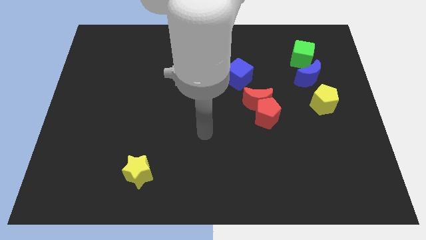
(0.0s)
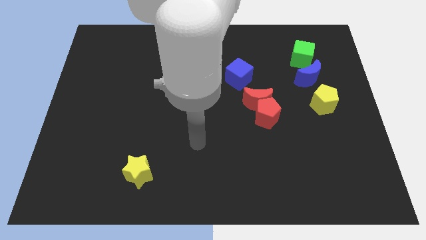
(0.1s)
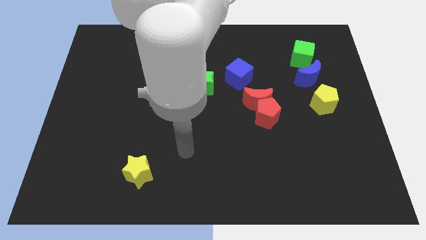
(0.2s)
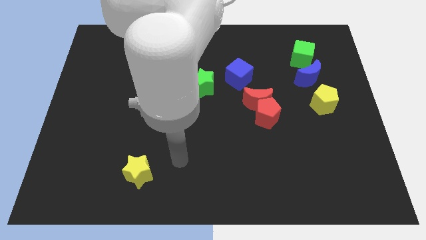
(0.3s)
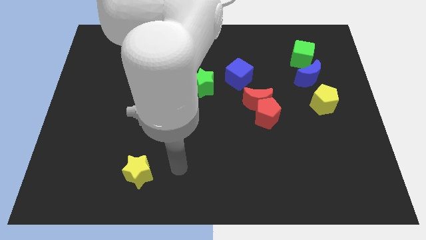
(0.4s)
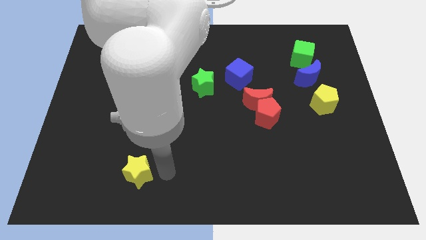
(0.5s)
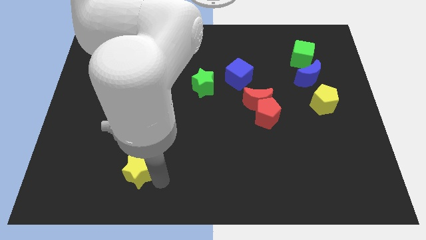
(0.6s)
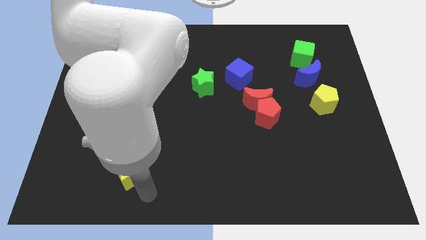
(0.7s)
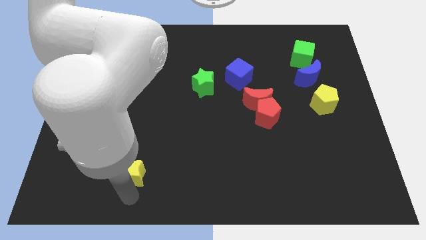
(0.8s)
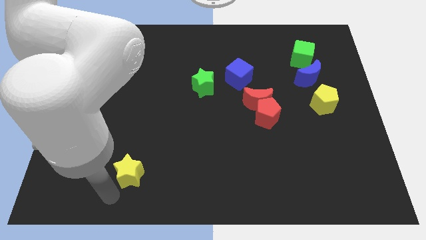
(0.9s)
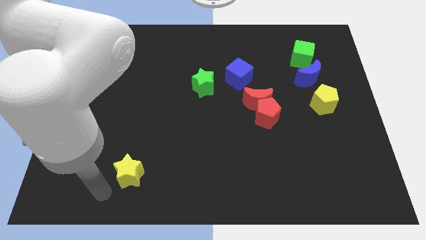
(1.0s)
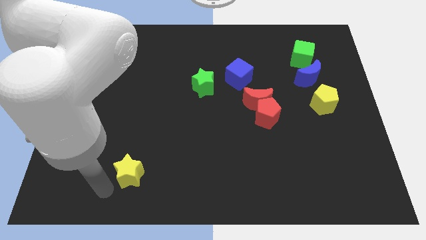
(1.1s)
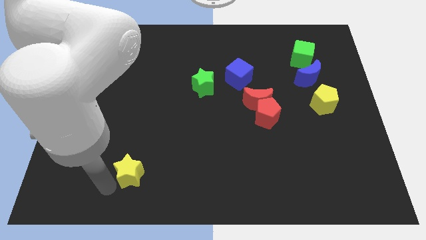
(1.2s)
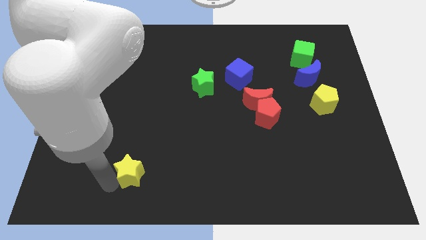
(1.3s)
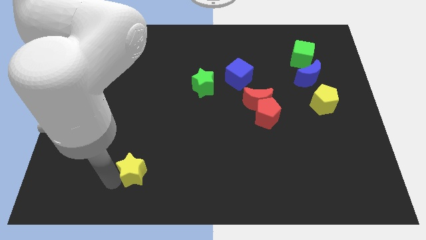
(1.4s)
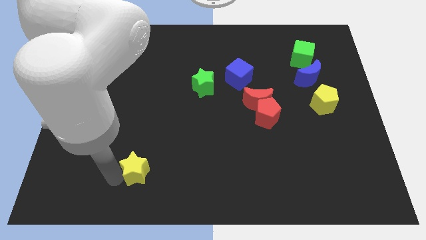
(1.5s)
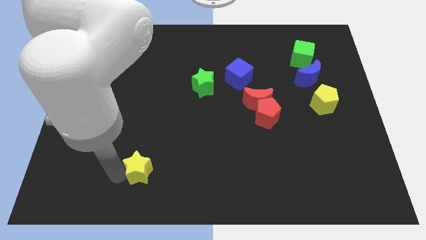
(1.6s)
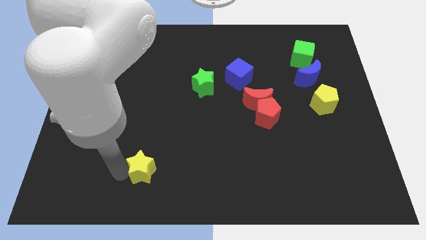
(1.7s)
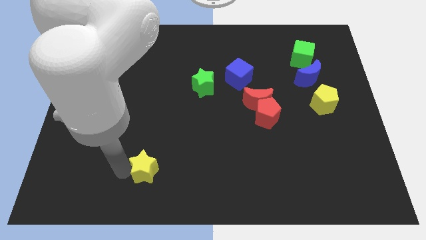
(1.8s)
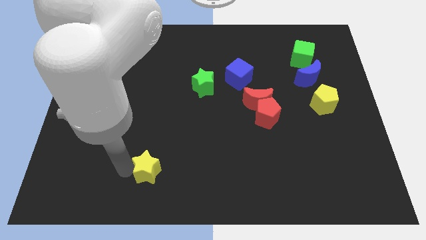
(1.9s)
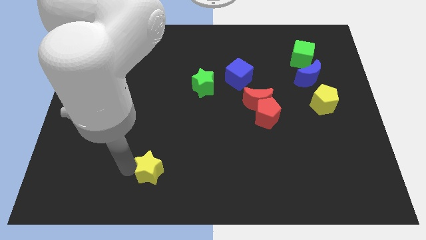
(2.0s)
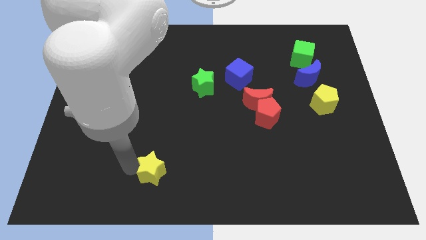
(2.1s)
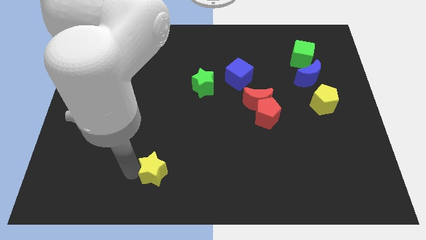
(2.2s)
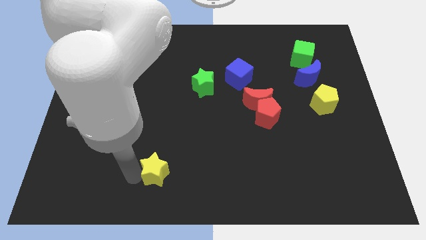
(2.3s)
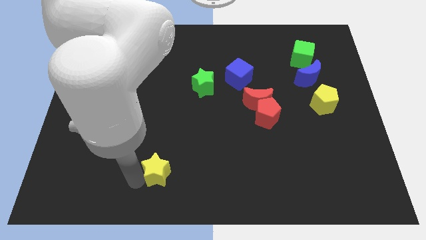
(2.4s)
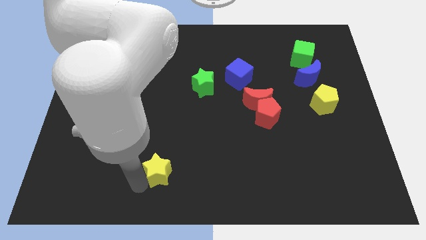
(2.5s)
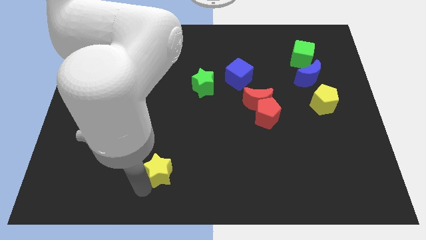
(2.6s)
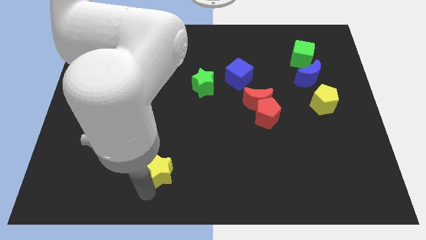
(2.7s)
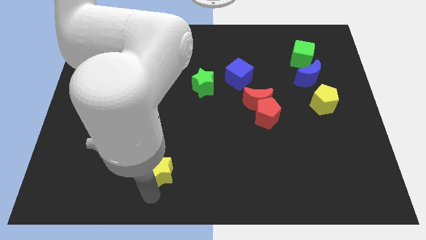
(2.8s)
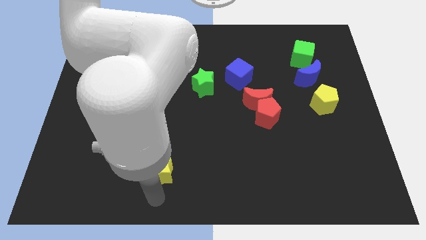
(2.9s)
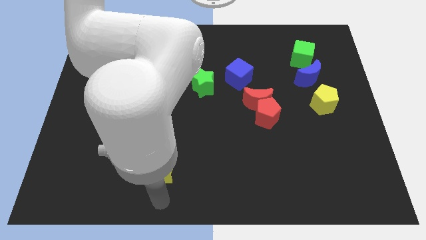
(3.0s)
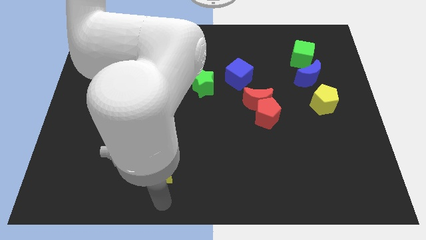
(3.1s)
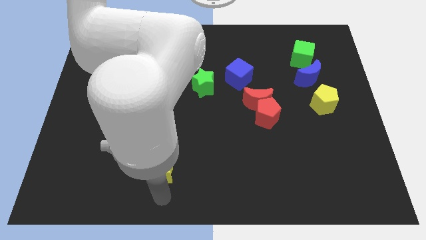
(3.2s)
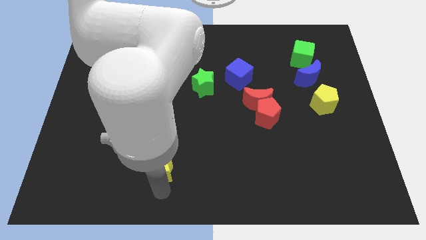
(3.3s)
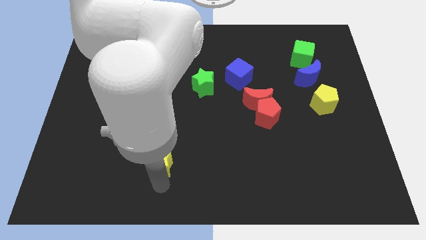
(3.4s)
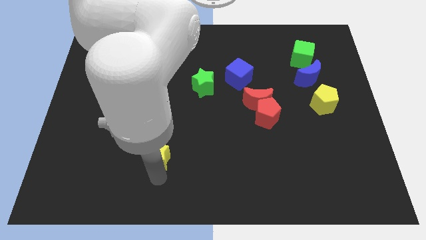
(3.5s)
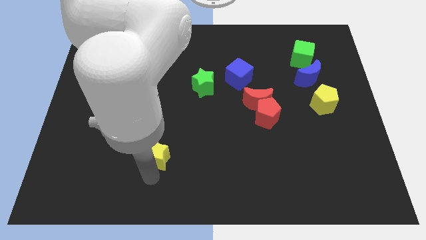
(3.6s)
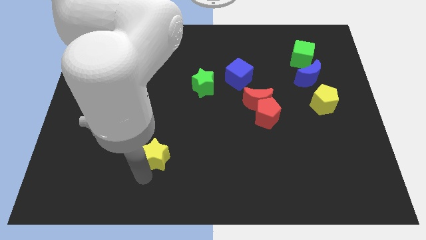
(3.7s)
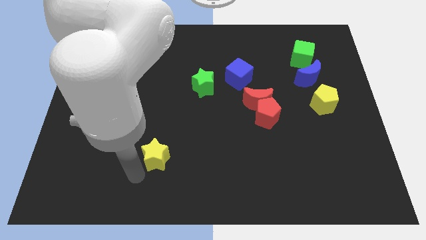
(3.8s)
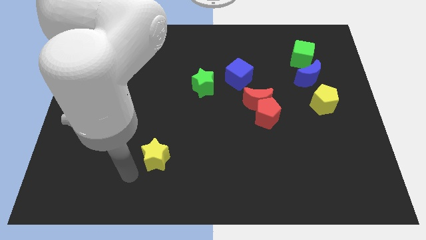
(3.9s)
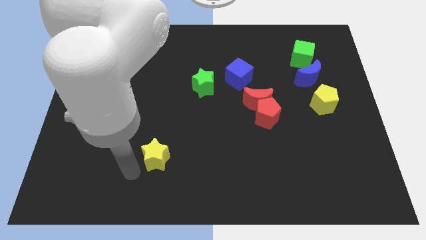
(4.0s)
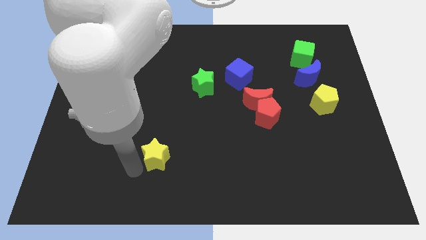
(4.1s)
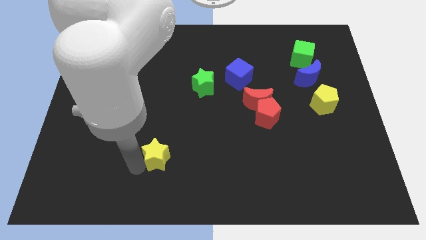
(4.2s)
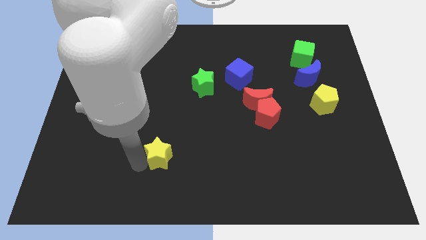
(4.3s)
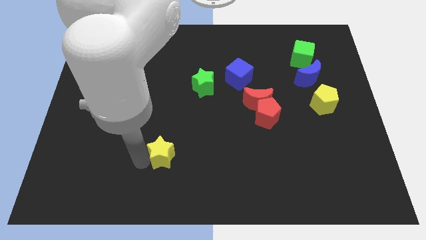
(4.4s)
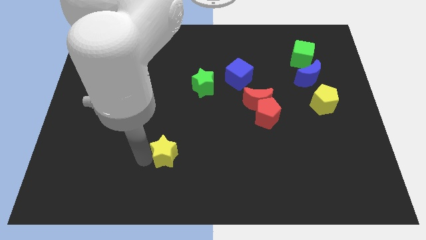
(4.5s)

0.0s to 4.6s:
push the yellow star somewhat up and right

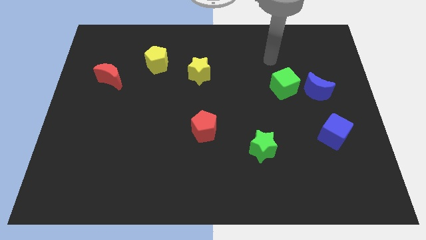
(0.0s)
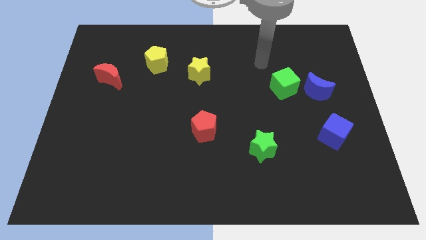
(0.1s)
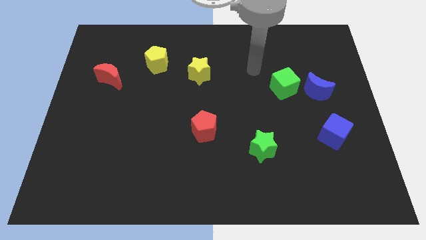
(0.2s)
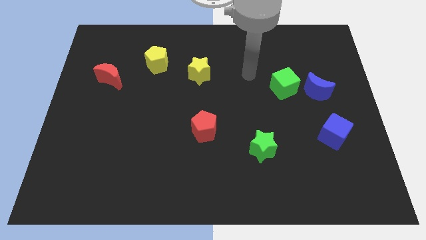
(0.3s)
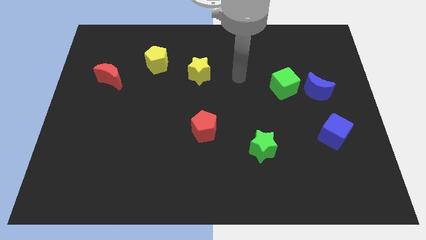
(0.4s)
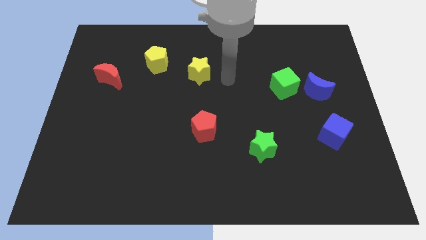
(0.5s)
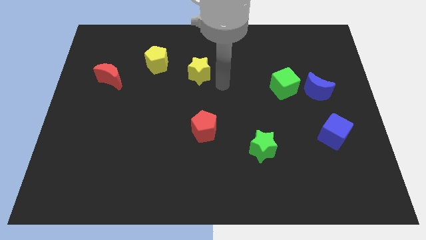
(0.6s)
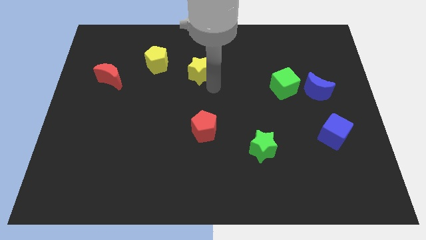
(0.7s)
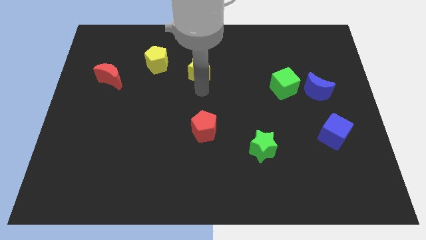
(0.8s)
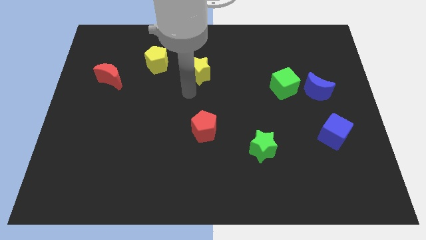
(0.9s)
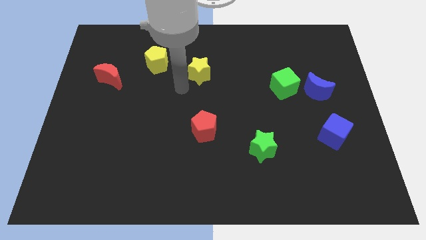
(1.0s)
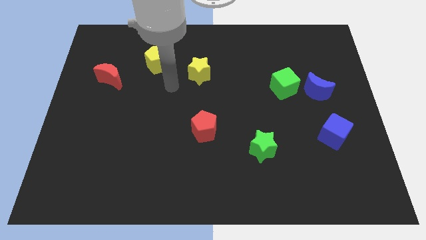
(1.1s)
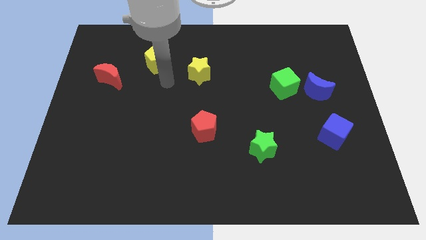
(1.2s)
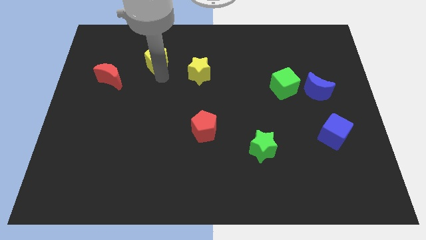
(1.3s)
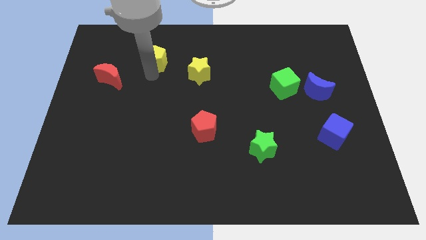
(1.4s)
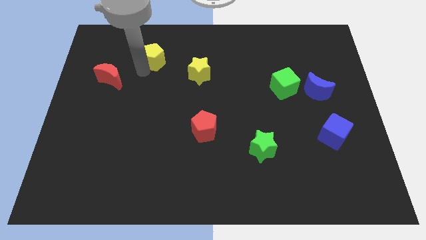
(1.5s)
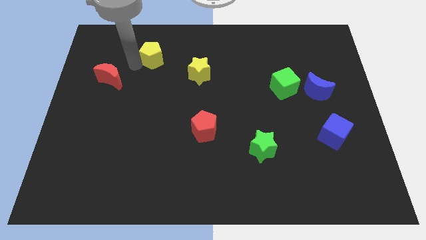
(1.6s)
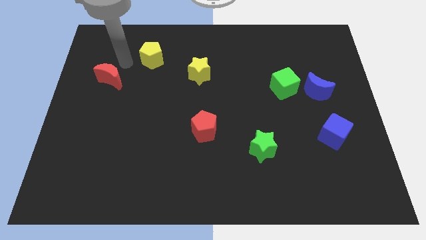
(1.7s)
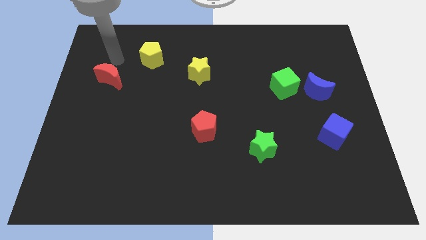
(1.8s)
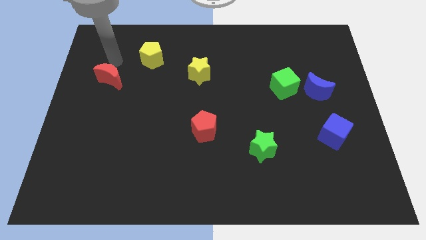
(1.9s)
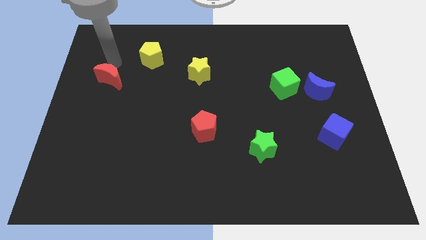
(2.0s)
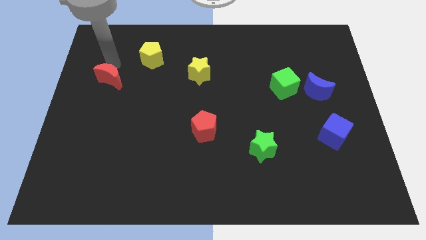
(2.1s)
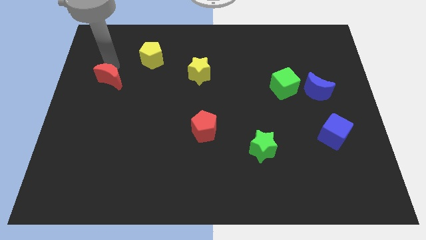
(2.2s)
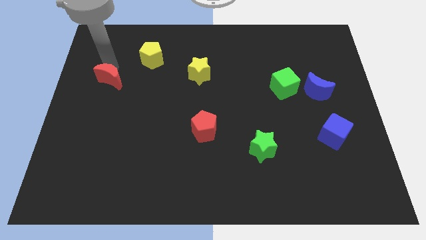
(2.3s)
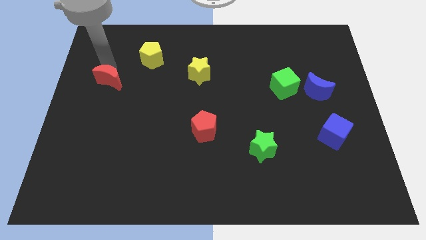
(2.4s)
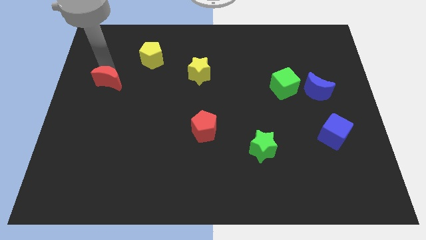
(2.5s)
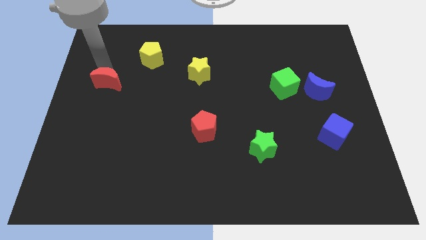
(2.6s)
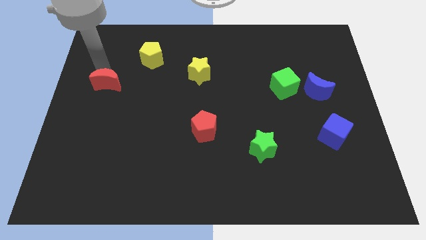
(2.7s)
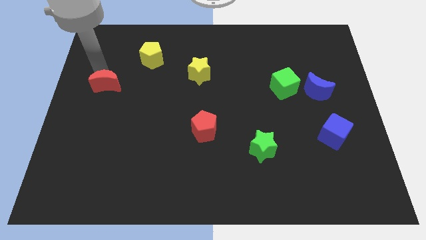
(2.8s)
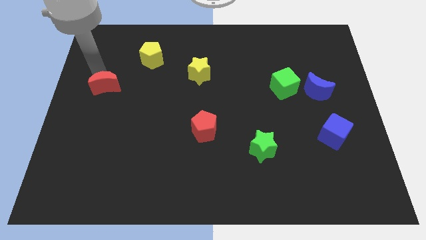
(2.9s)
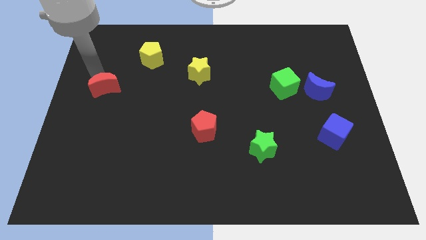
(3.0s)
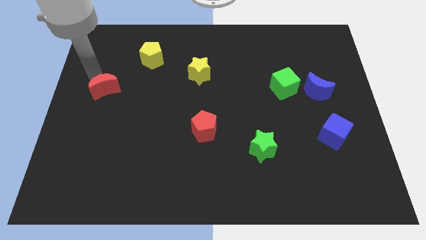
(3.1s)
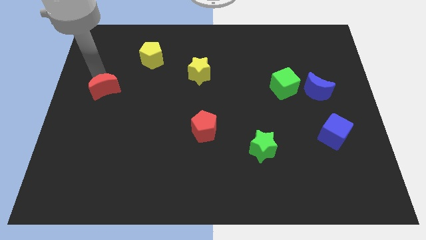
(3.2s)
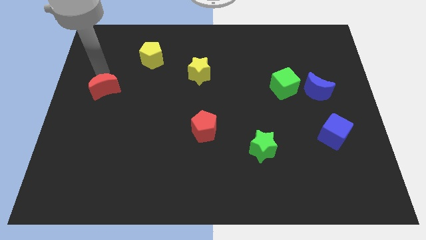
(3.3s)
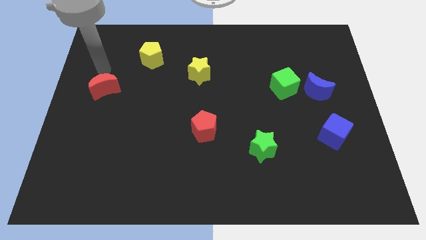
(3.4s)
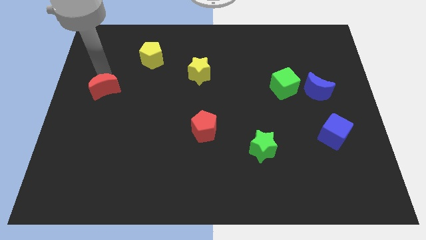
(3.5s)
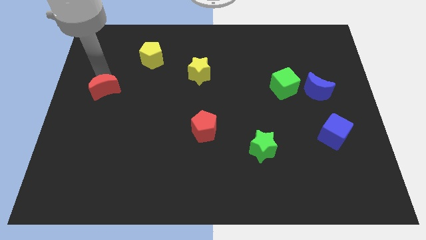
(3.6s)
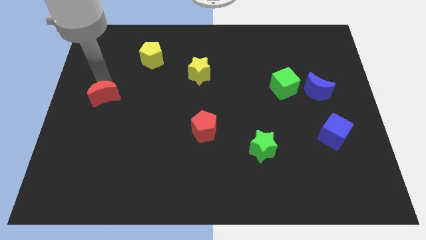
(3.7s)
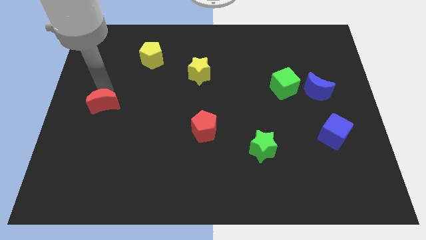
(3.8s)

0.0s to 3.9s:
slightly push the red moon down
